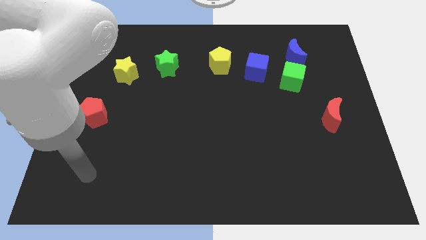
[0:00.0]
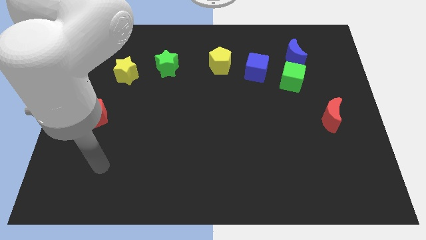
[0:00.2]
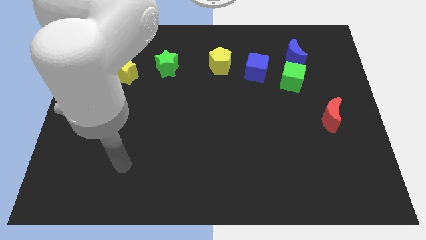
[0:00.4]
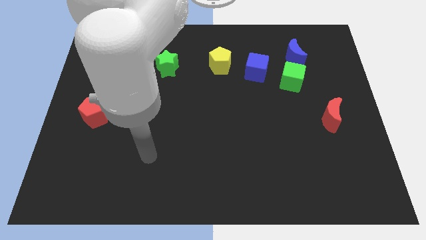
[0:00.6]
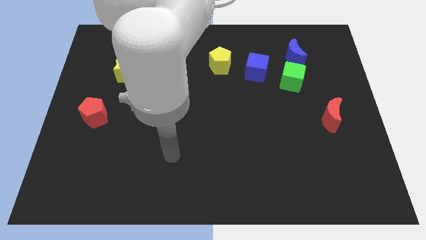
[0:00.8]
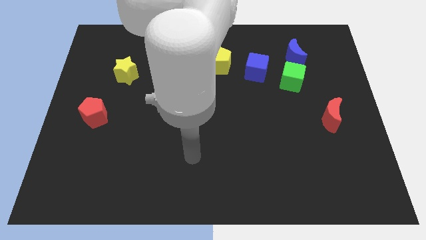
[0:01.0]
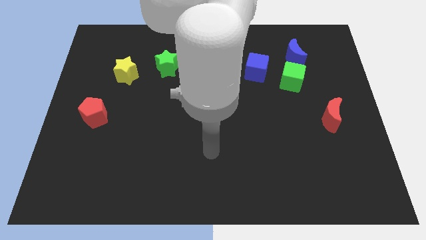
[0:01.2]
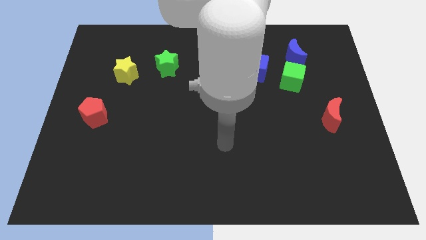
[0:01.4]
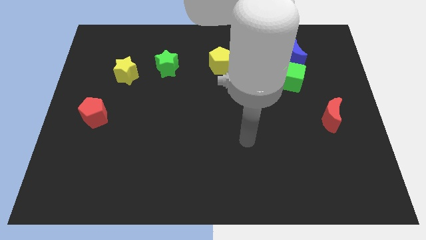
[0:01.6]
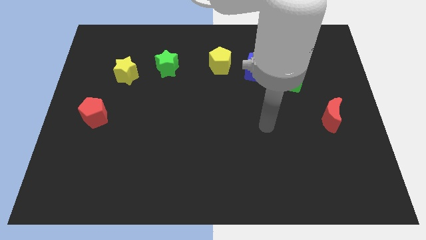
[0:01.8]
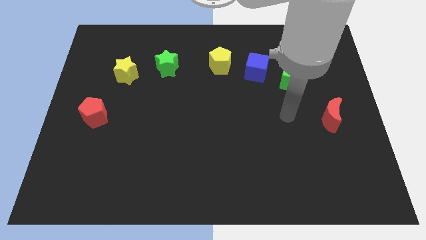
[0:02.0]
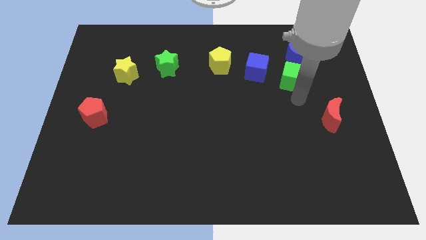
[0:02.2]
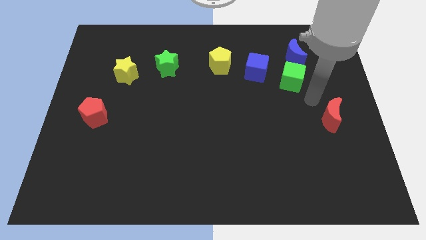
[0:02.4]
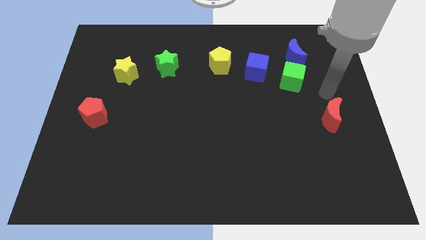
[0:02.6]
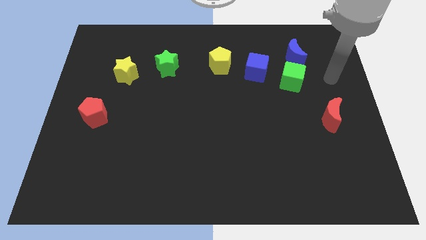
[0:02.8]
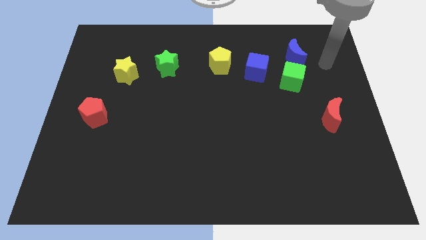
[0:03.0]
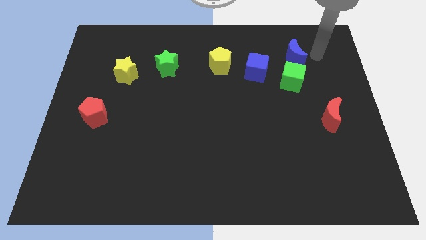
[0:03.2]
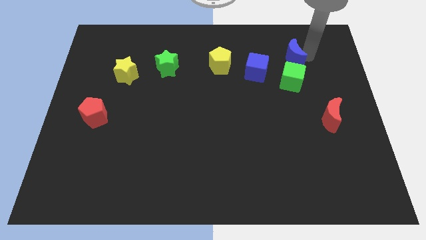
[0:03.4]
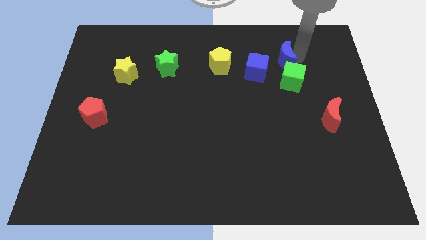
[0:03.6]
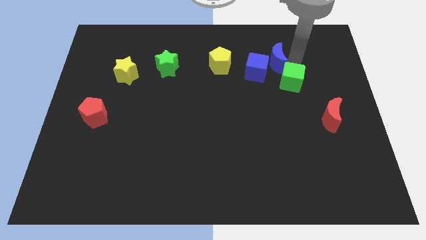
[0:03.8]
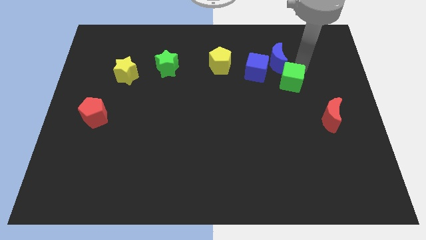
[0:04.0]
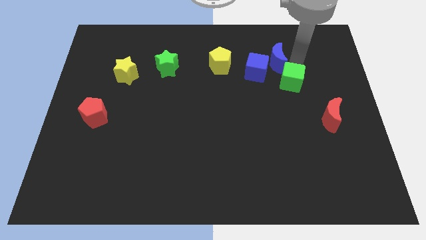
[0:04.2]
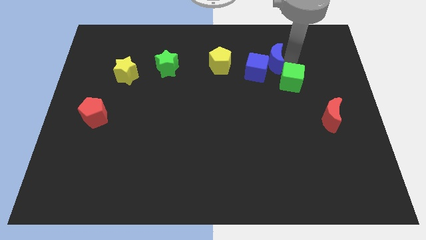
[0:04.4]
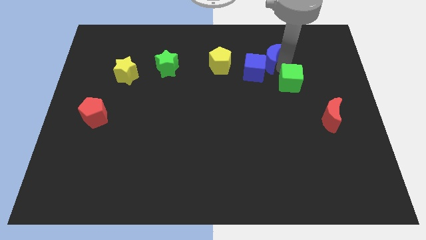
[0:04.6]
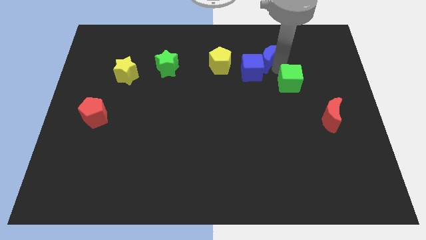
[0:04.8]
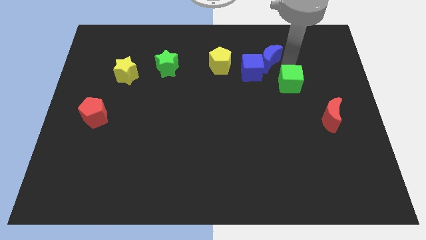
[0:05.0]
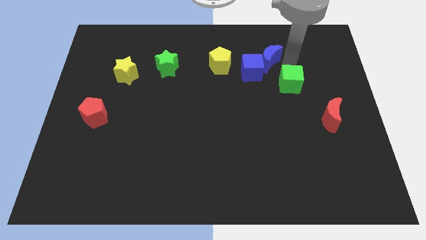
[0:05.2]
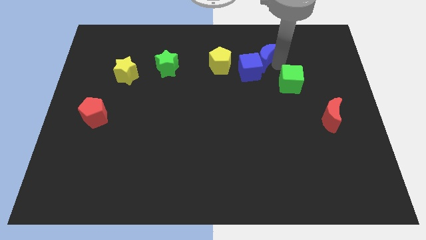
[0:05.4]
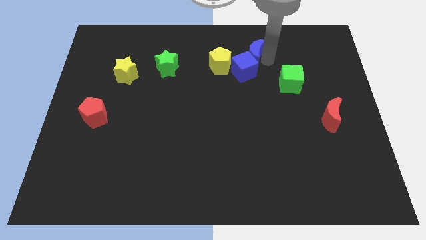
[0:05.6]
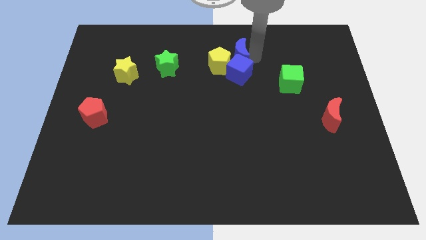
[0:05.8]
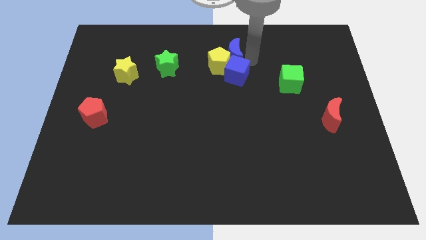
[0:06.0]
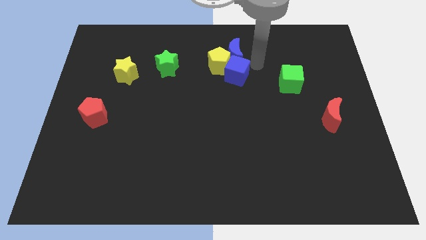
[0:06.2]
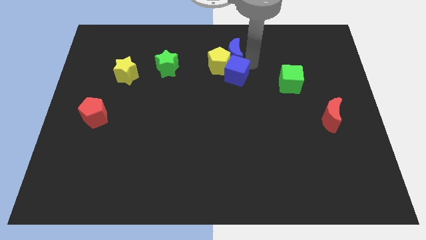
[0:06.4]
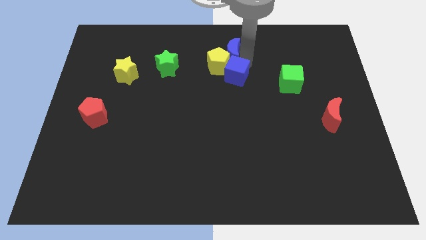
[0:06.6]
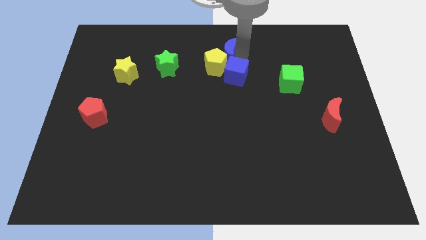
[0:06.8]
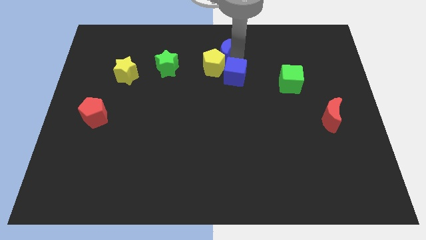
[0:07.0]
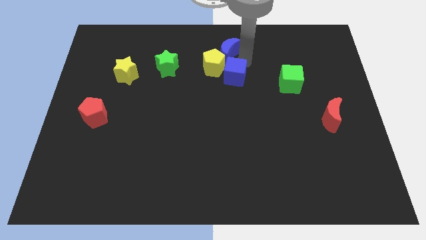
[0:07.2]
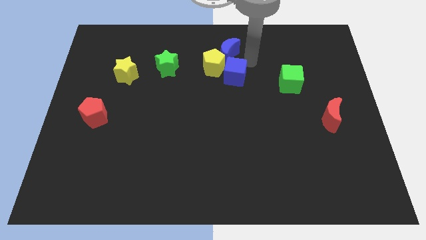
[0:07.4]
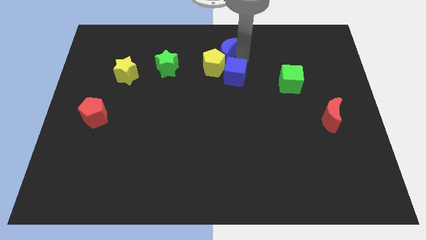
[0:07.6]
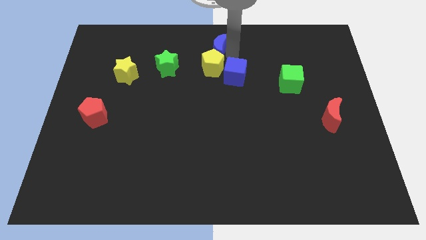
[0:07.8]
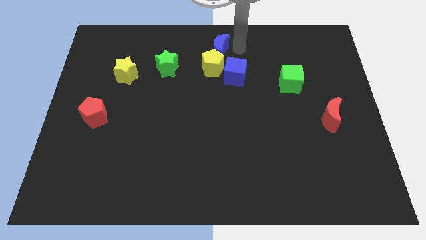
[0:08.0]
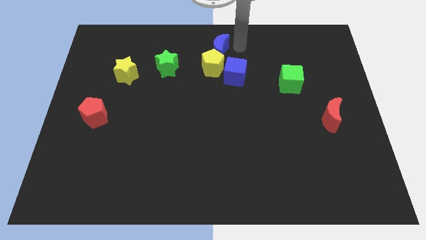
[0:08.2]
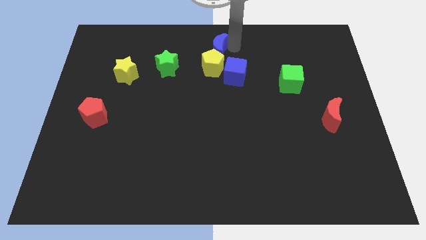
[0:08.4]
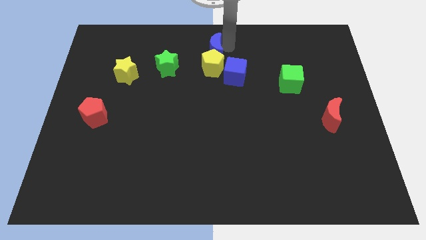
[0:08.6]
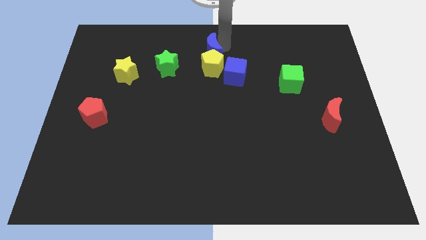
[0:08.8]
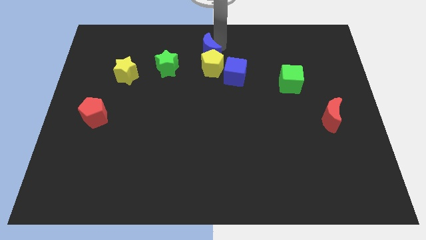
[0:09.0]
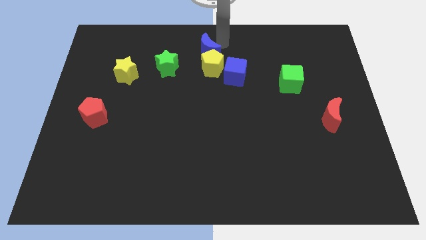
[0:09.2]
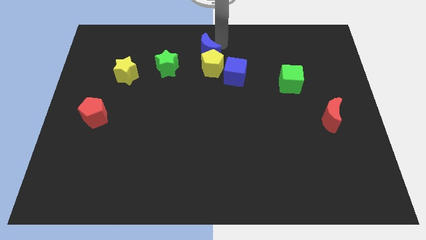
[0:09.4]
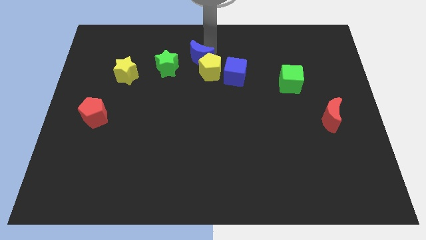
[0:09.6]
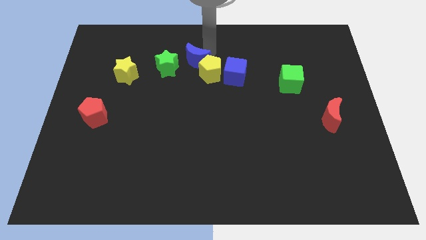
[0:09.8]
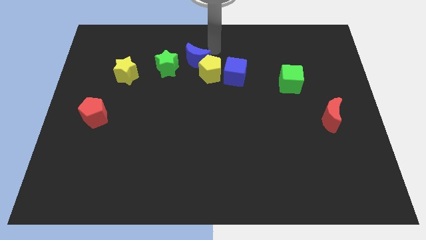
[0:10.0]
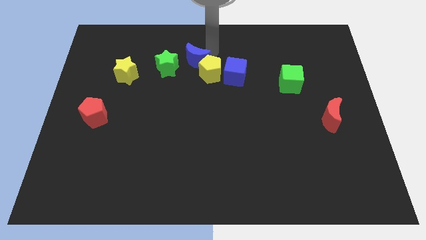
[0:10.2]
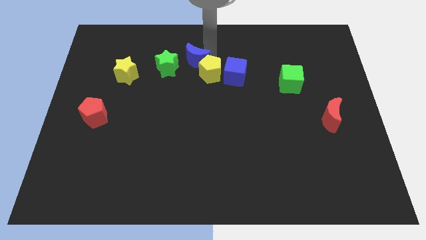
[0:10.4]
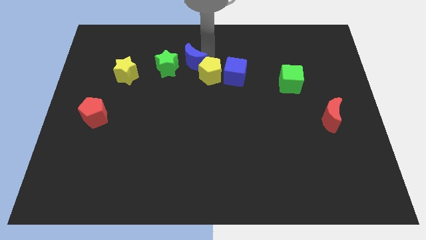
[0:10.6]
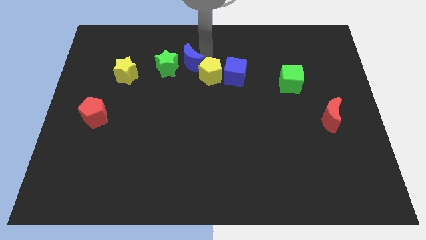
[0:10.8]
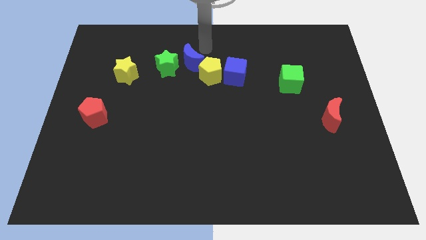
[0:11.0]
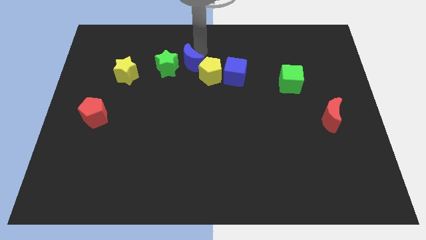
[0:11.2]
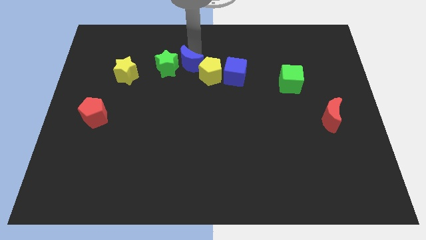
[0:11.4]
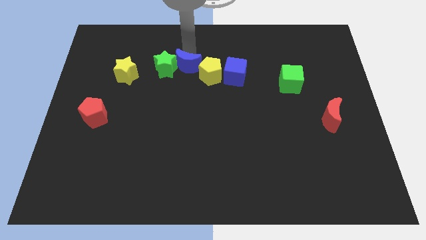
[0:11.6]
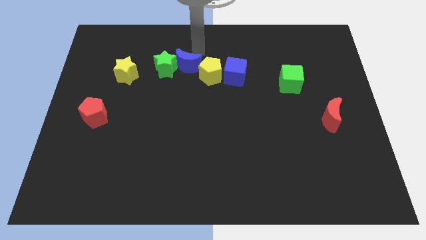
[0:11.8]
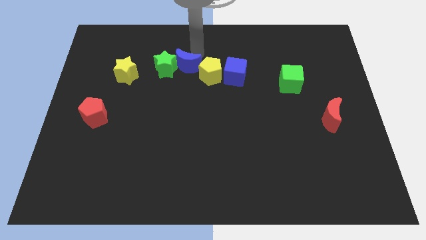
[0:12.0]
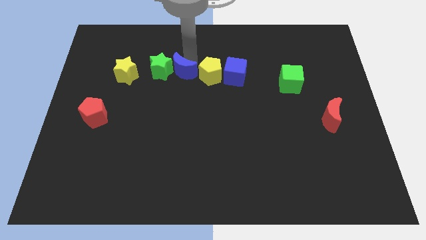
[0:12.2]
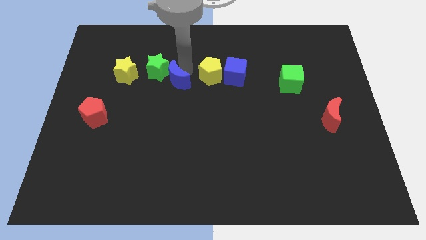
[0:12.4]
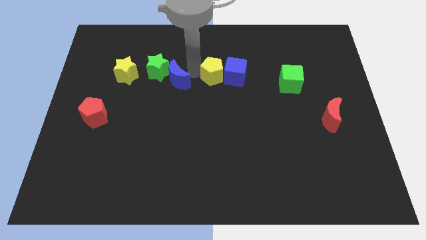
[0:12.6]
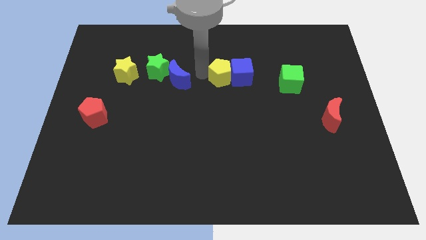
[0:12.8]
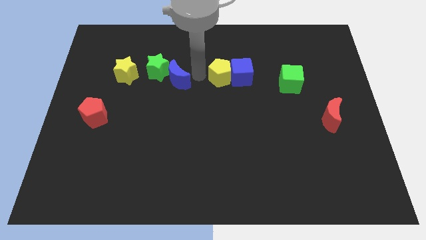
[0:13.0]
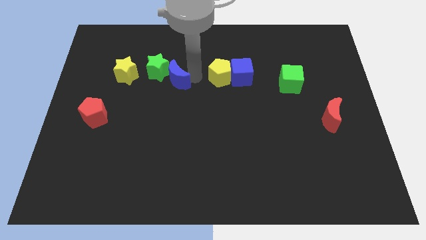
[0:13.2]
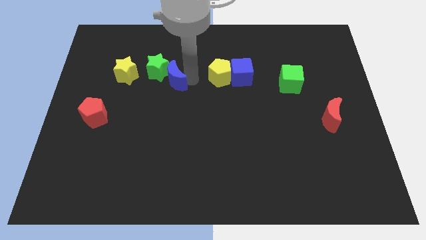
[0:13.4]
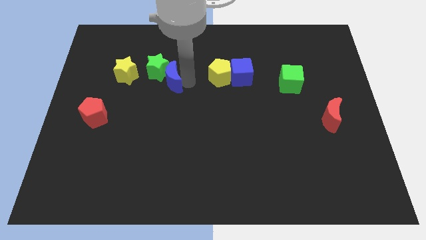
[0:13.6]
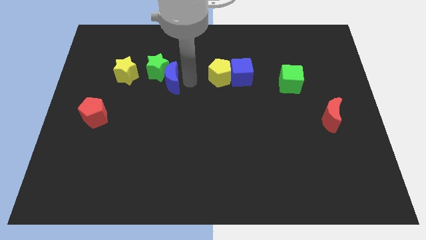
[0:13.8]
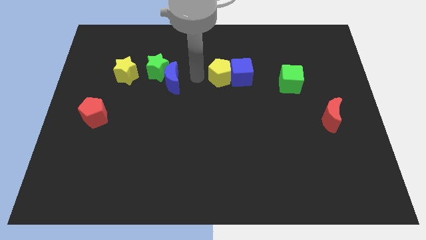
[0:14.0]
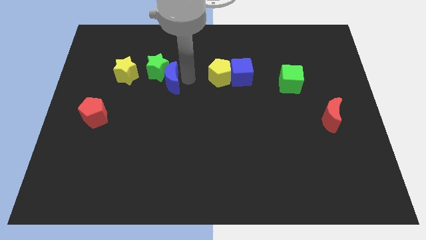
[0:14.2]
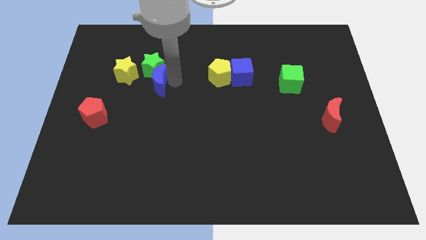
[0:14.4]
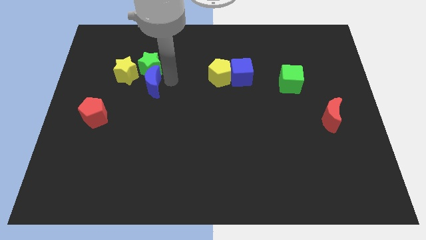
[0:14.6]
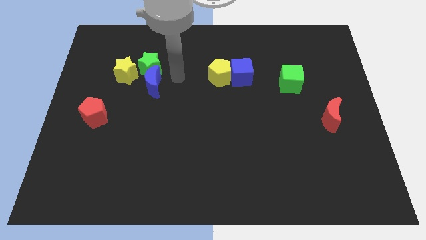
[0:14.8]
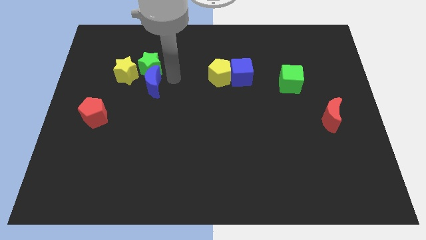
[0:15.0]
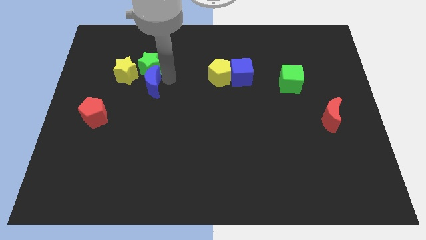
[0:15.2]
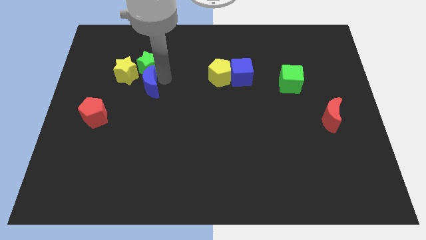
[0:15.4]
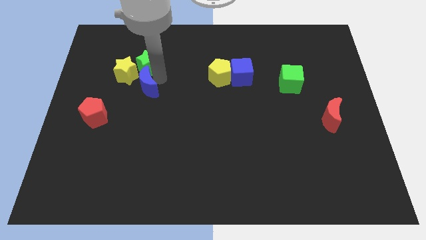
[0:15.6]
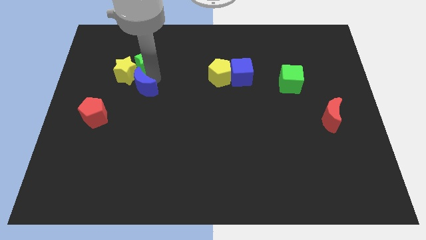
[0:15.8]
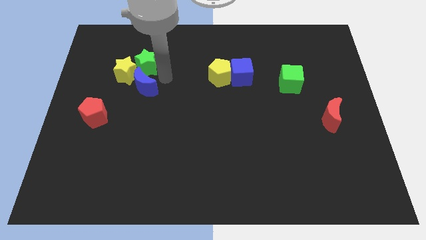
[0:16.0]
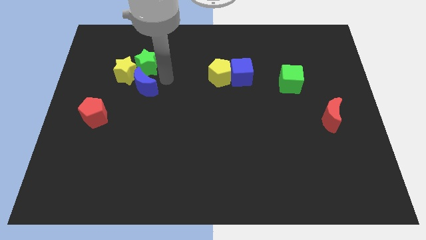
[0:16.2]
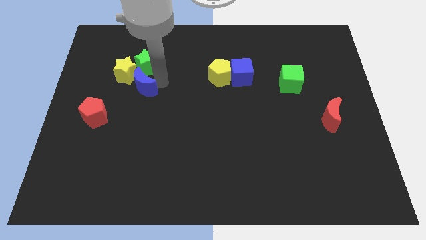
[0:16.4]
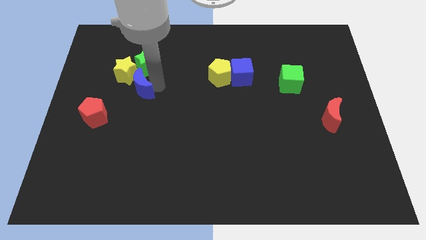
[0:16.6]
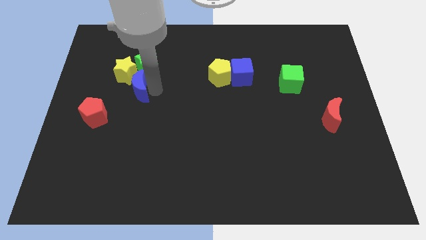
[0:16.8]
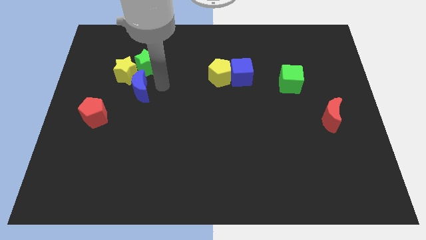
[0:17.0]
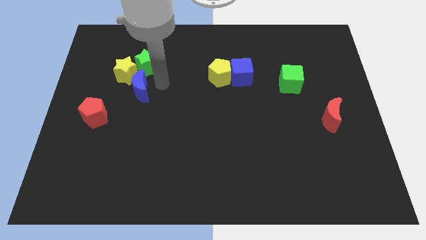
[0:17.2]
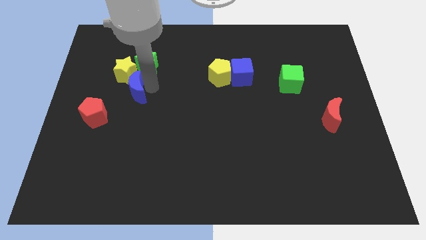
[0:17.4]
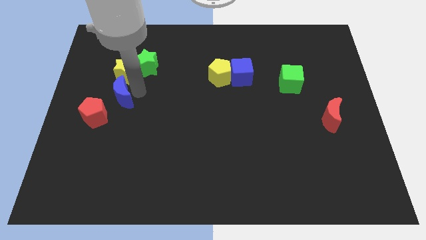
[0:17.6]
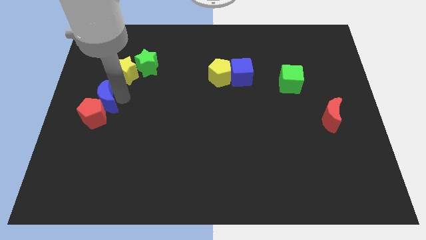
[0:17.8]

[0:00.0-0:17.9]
put the blue moon to the left side
